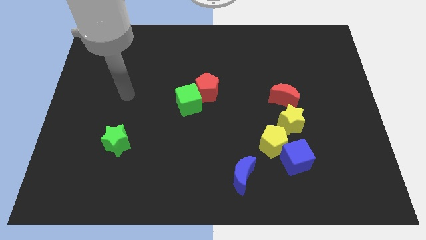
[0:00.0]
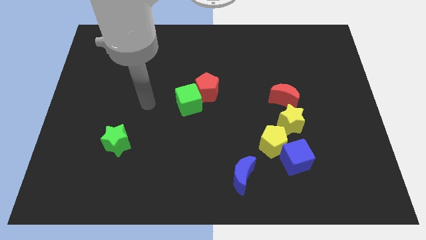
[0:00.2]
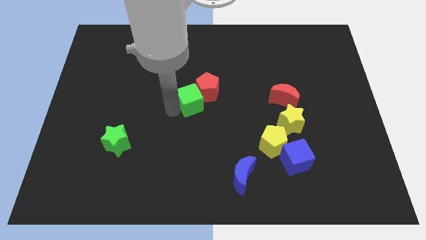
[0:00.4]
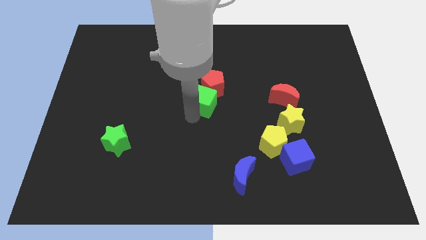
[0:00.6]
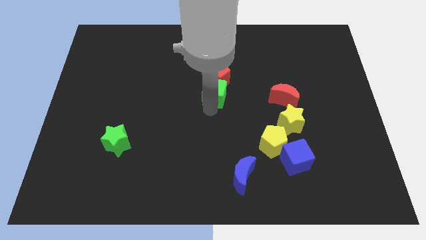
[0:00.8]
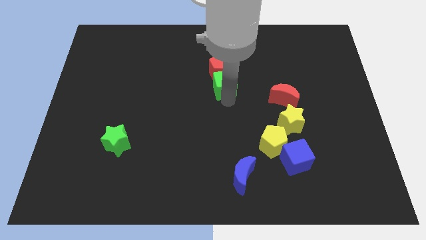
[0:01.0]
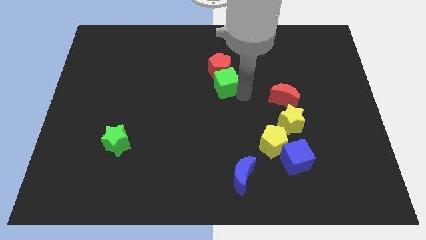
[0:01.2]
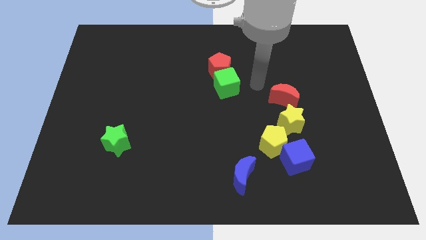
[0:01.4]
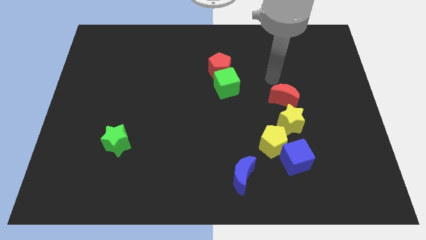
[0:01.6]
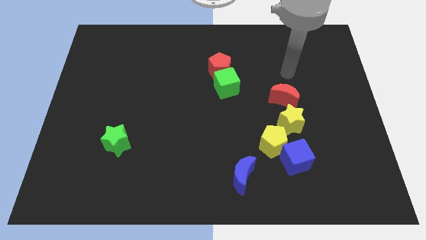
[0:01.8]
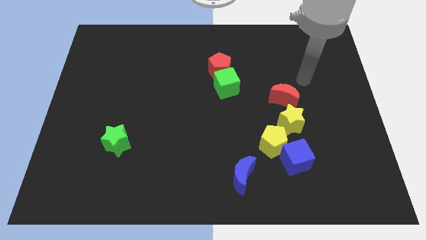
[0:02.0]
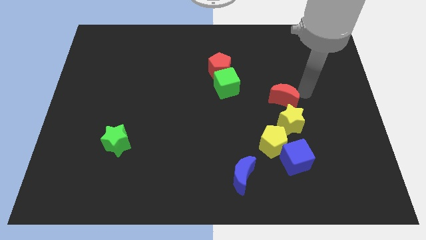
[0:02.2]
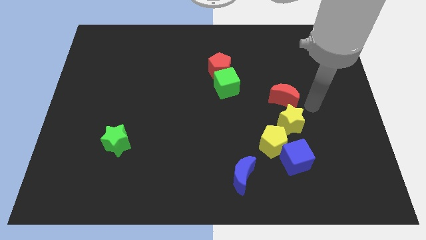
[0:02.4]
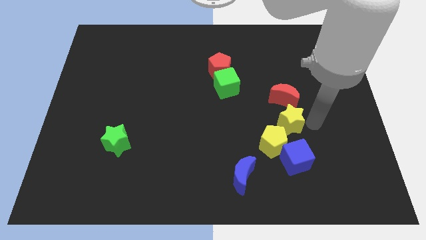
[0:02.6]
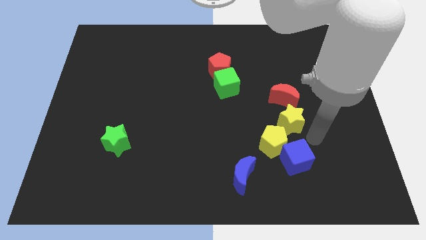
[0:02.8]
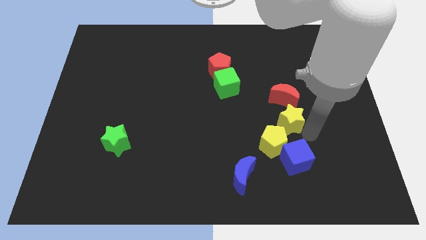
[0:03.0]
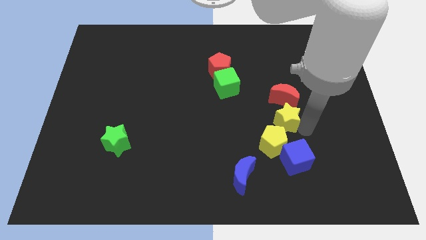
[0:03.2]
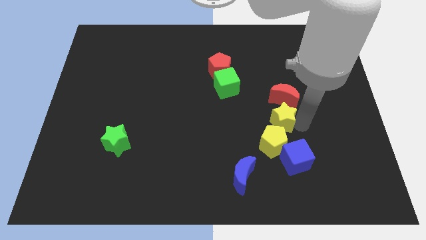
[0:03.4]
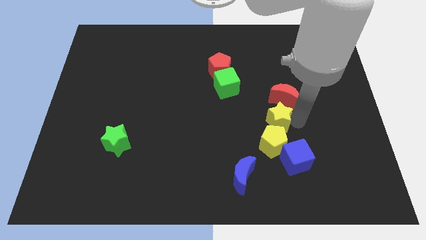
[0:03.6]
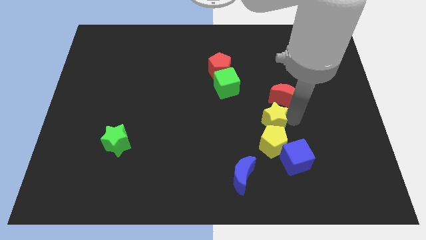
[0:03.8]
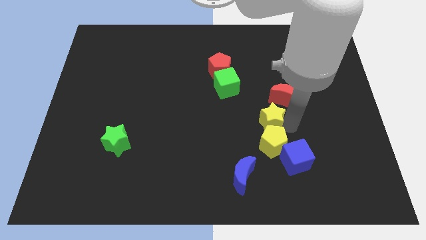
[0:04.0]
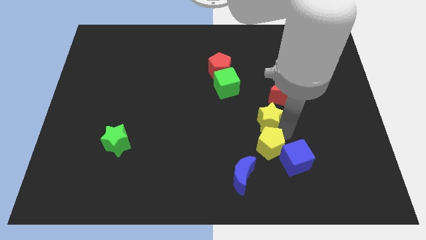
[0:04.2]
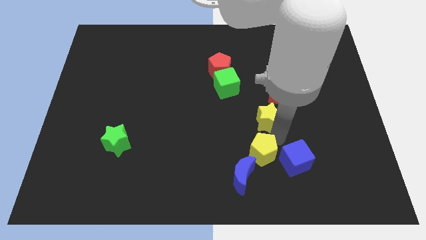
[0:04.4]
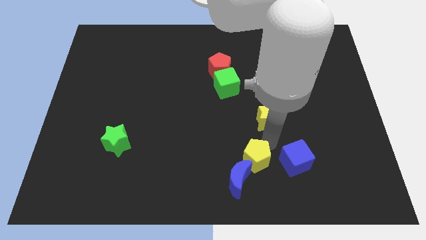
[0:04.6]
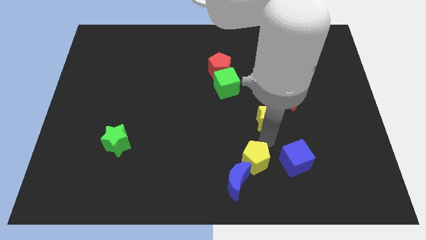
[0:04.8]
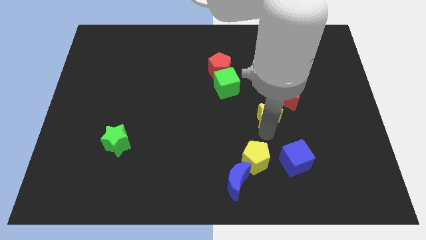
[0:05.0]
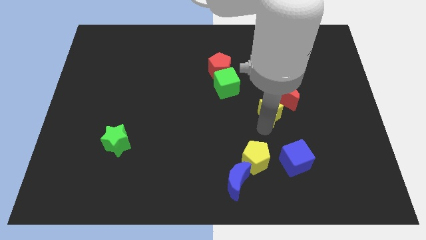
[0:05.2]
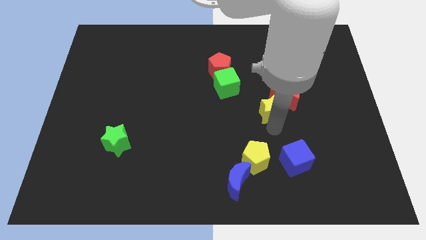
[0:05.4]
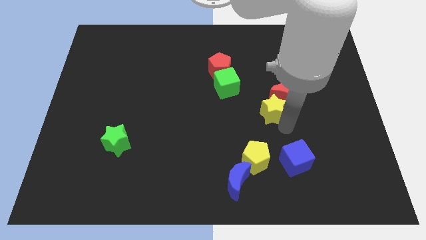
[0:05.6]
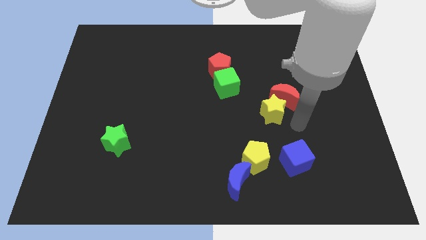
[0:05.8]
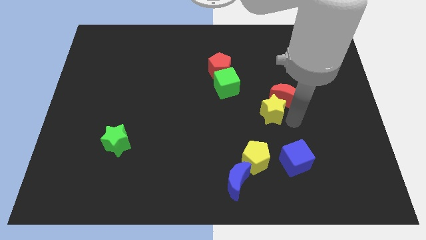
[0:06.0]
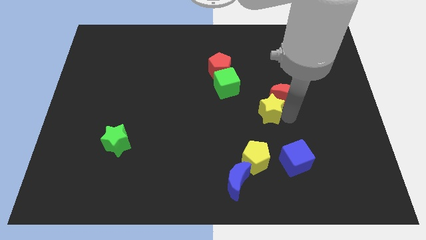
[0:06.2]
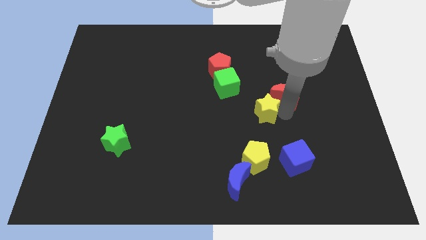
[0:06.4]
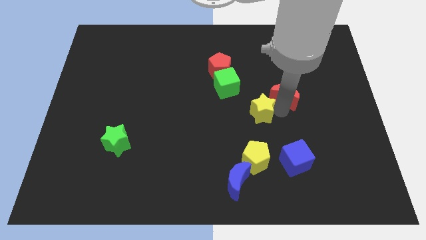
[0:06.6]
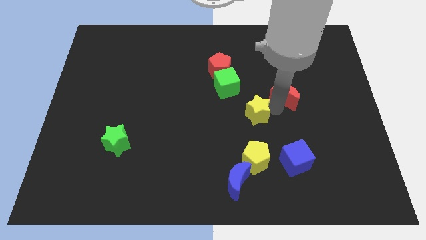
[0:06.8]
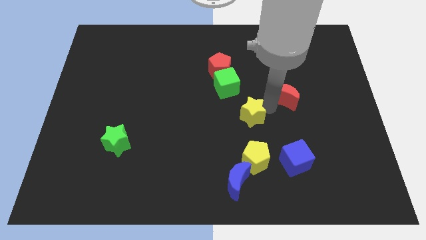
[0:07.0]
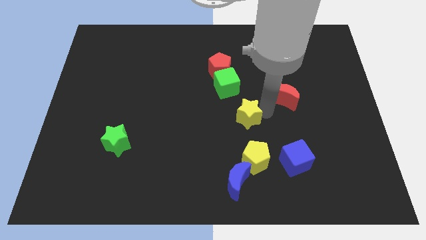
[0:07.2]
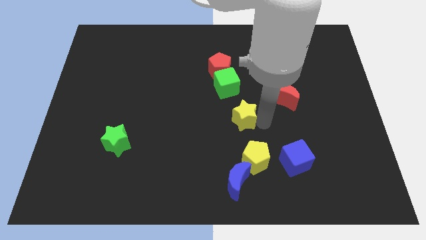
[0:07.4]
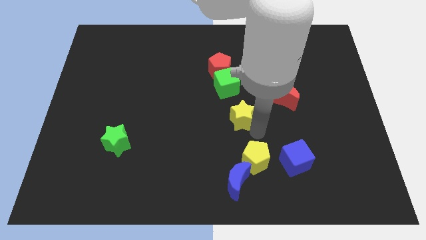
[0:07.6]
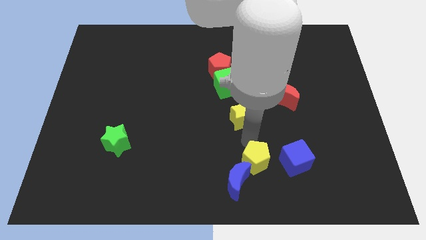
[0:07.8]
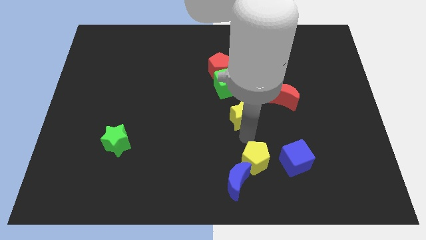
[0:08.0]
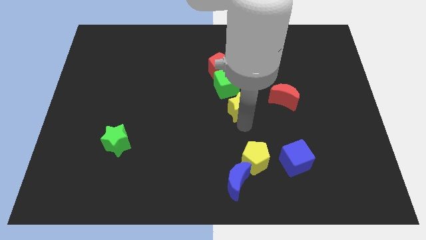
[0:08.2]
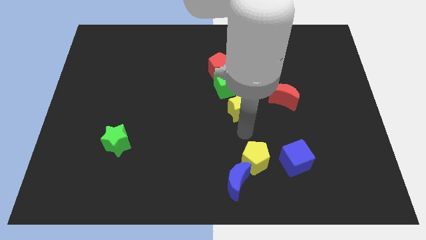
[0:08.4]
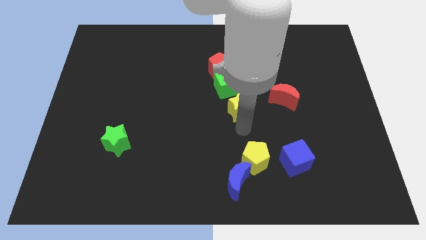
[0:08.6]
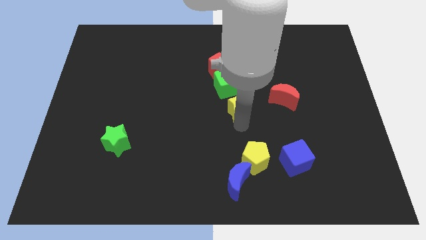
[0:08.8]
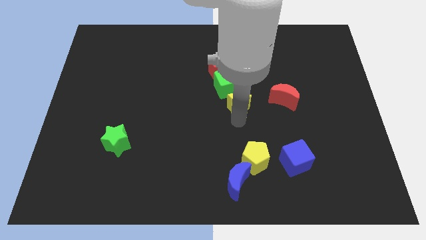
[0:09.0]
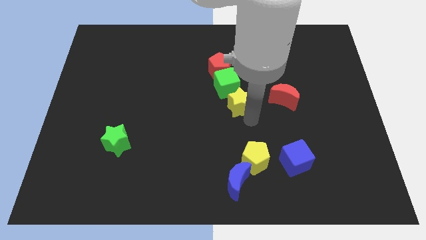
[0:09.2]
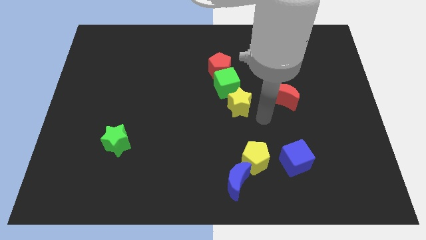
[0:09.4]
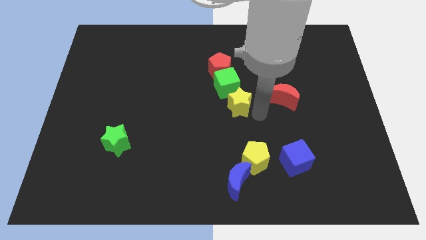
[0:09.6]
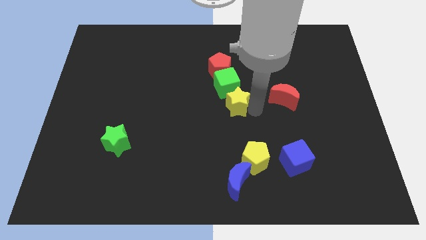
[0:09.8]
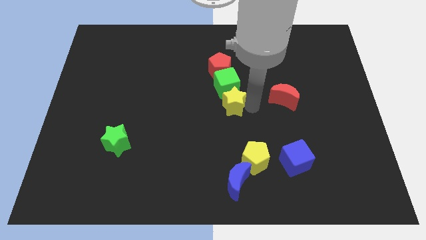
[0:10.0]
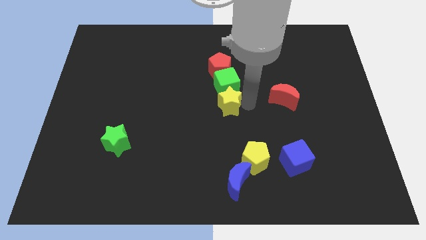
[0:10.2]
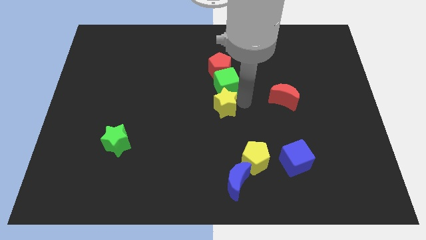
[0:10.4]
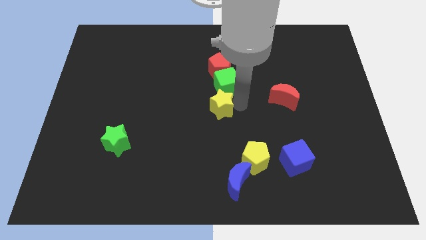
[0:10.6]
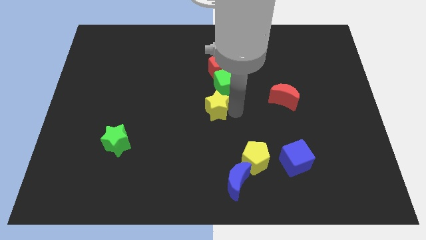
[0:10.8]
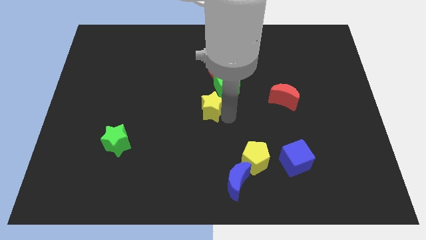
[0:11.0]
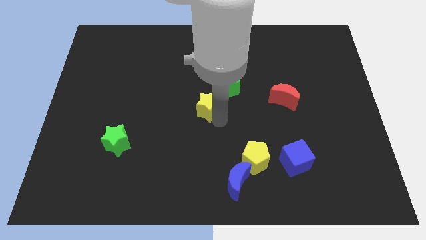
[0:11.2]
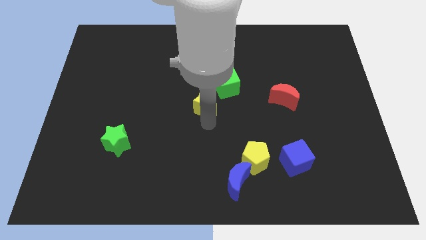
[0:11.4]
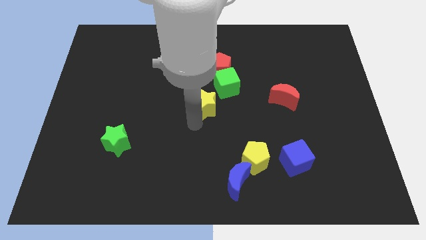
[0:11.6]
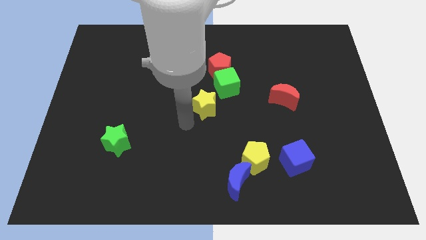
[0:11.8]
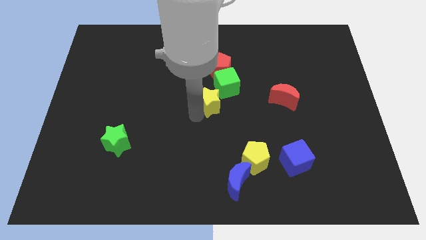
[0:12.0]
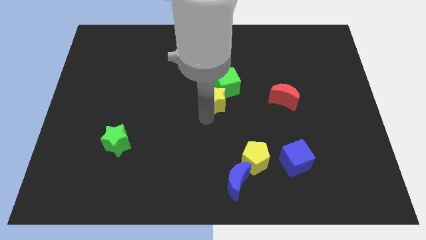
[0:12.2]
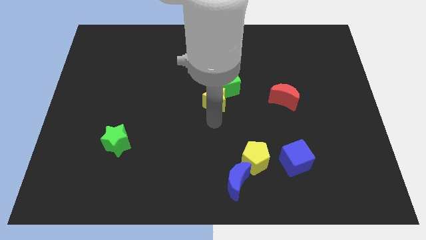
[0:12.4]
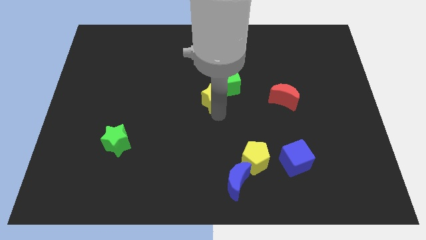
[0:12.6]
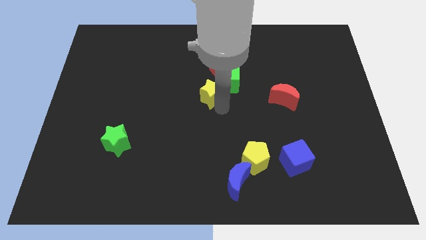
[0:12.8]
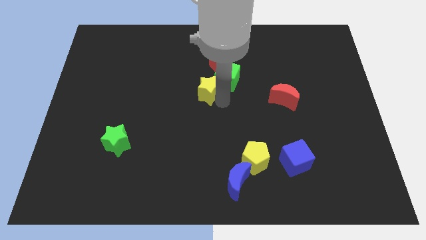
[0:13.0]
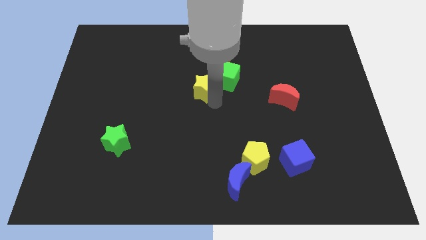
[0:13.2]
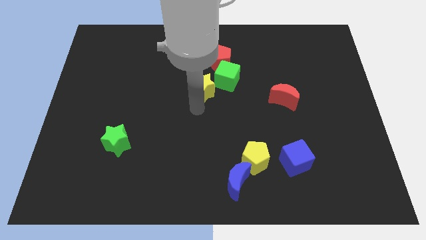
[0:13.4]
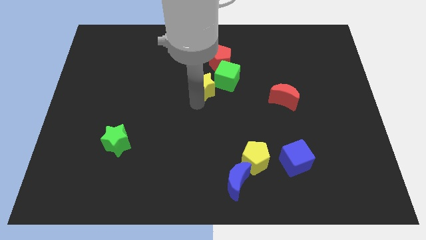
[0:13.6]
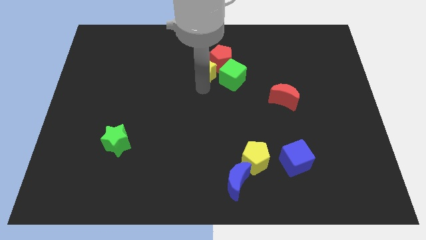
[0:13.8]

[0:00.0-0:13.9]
move the yellow star to the red pentagon

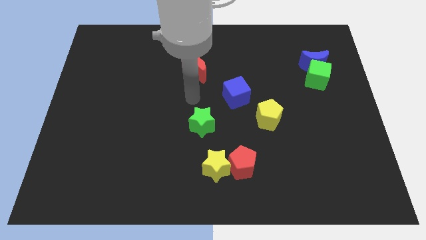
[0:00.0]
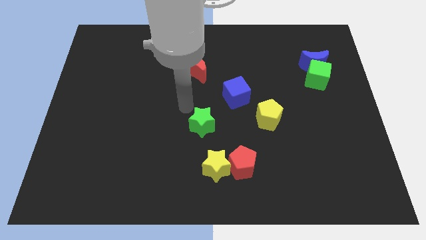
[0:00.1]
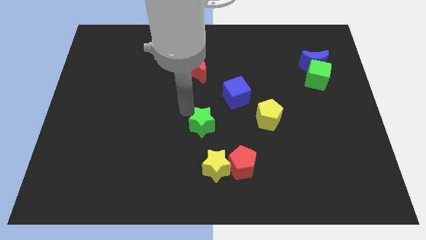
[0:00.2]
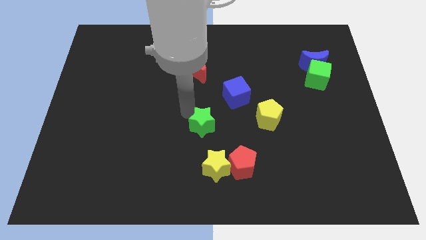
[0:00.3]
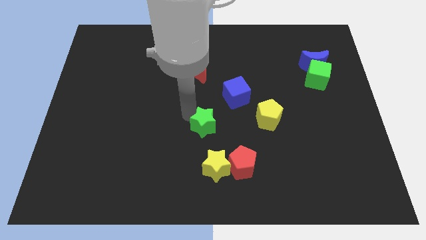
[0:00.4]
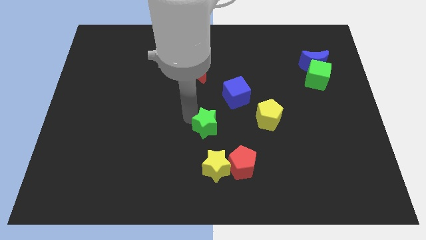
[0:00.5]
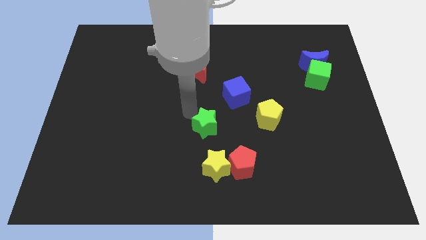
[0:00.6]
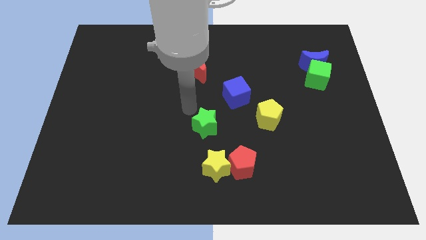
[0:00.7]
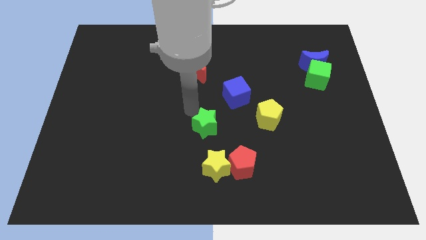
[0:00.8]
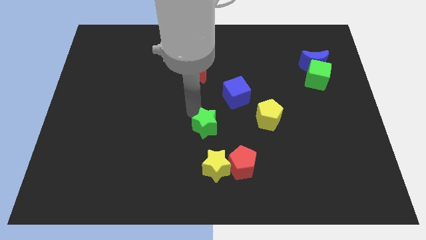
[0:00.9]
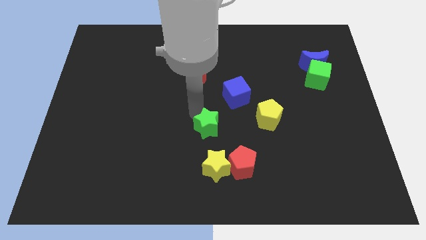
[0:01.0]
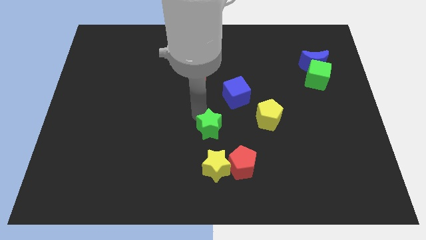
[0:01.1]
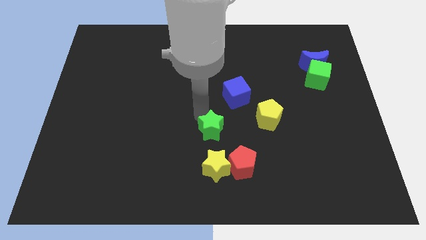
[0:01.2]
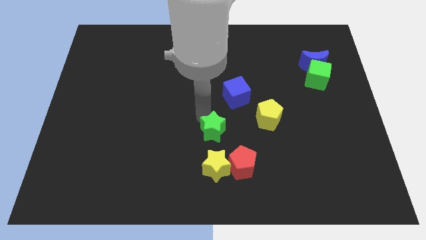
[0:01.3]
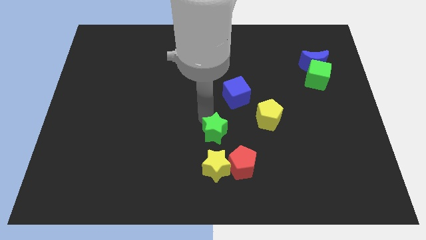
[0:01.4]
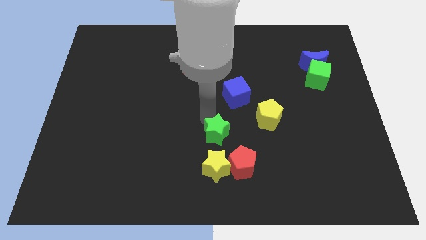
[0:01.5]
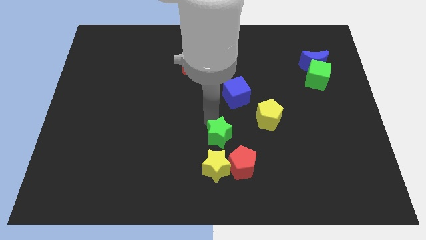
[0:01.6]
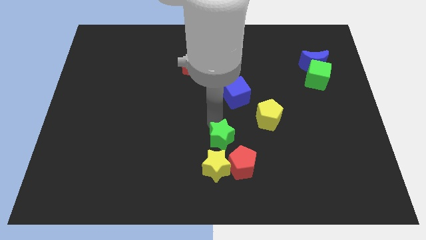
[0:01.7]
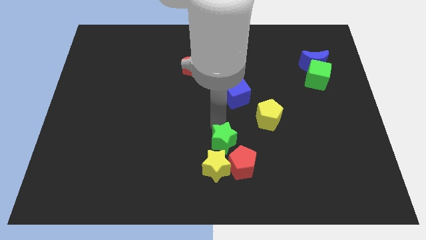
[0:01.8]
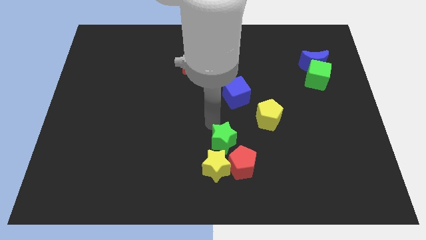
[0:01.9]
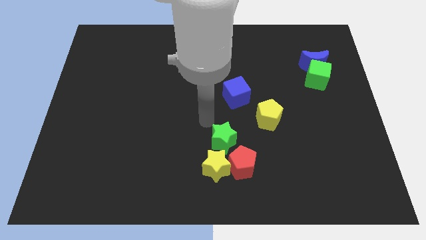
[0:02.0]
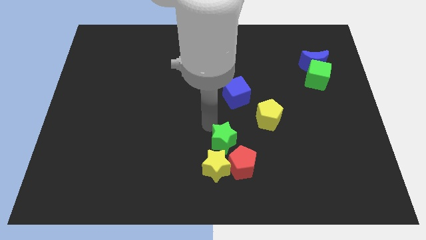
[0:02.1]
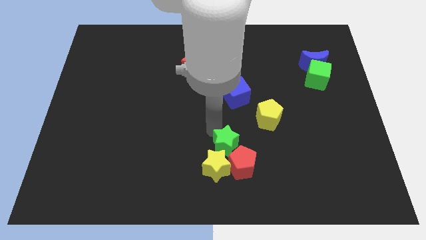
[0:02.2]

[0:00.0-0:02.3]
push the green star next to the red pentagon
